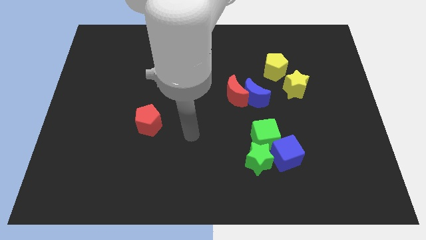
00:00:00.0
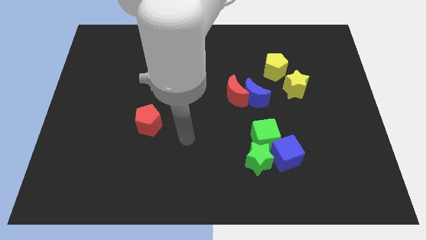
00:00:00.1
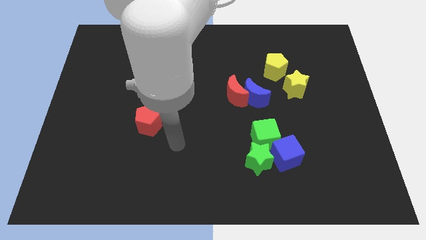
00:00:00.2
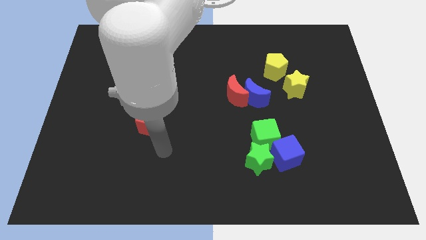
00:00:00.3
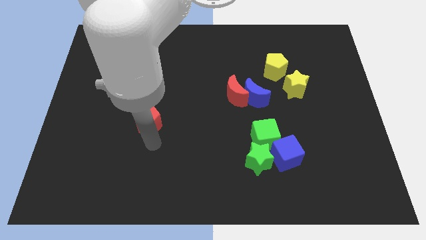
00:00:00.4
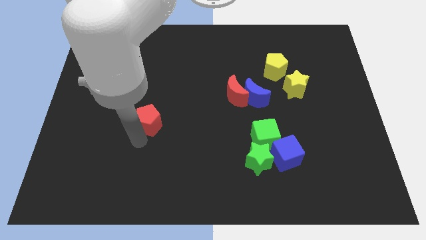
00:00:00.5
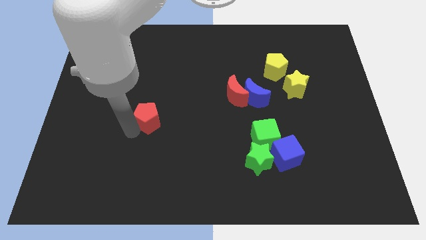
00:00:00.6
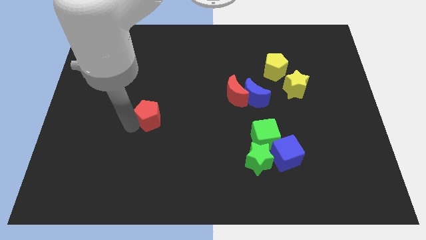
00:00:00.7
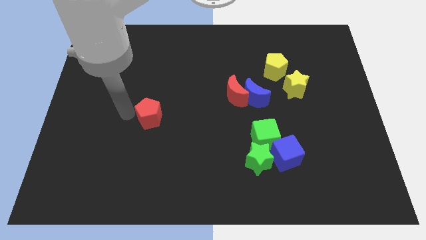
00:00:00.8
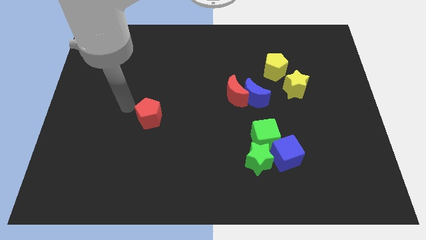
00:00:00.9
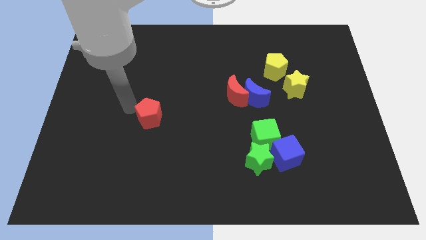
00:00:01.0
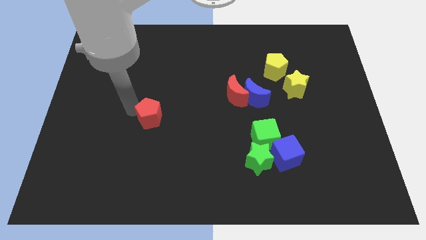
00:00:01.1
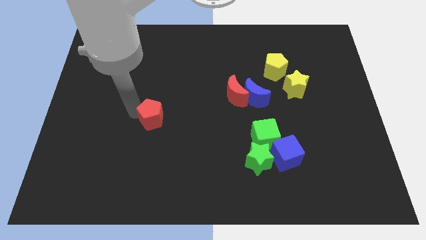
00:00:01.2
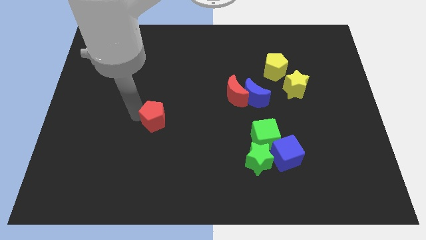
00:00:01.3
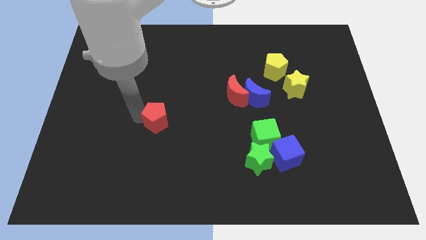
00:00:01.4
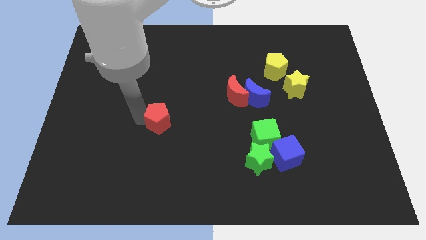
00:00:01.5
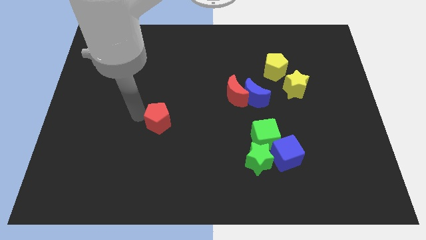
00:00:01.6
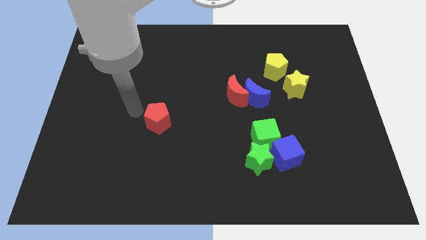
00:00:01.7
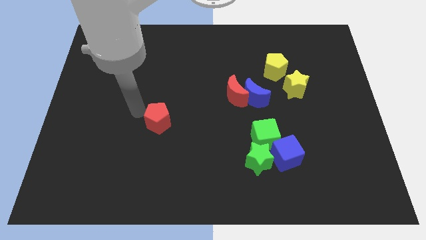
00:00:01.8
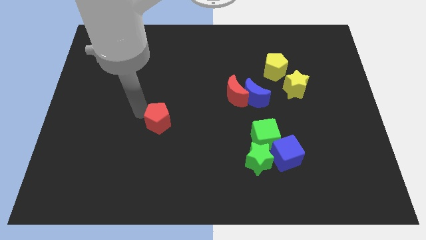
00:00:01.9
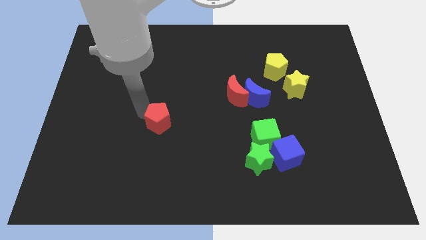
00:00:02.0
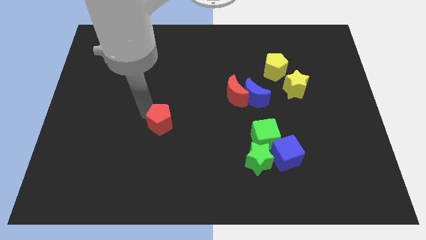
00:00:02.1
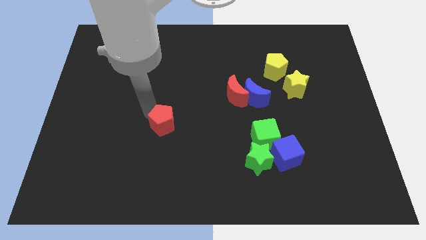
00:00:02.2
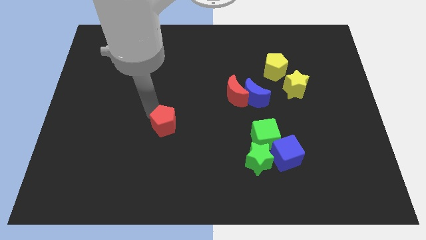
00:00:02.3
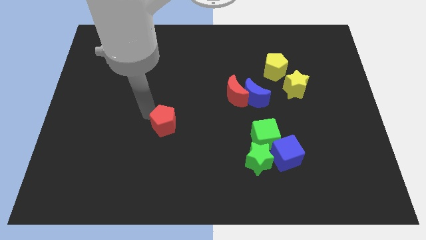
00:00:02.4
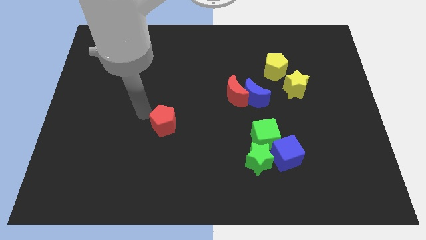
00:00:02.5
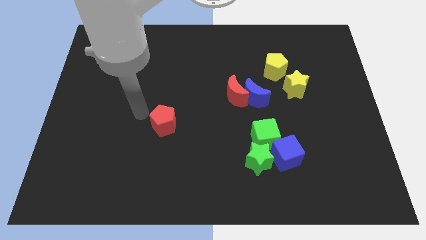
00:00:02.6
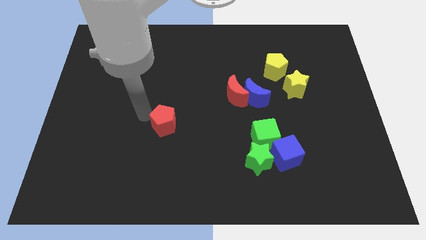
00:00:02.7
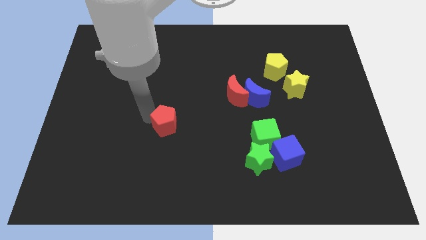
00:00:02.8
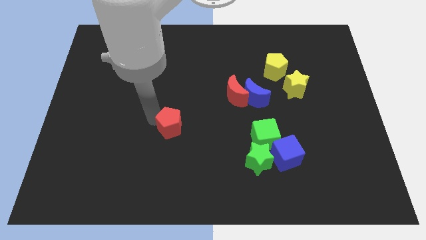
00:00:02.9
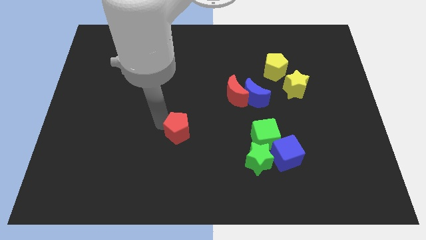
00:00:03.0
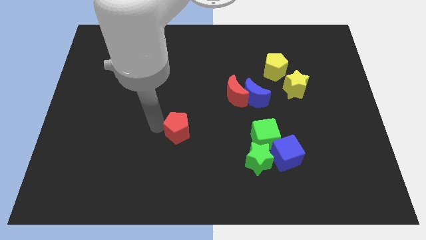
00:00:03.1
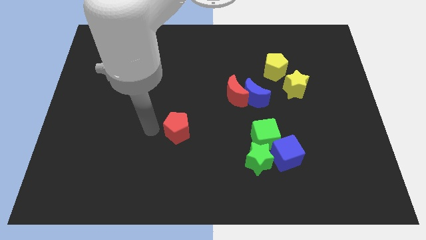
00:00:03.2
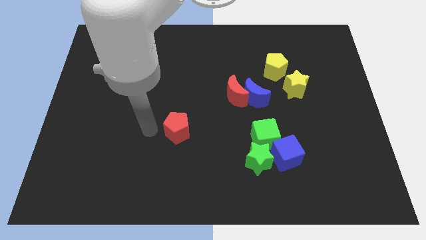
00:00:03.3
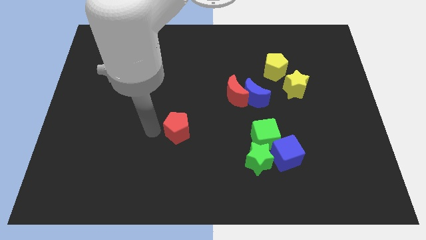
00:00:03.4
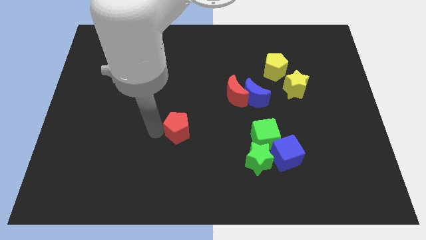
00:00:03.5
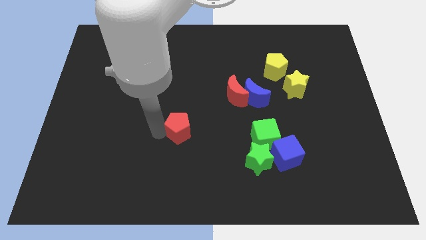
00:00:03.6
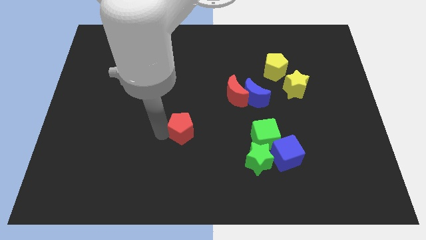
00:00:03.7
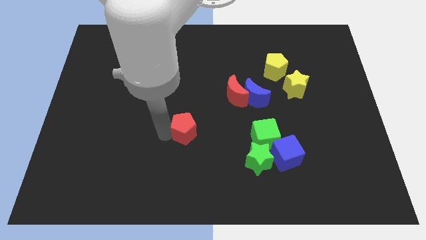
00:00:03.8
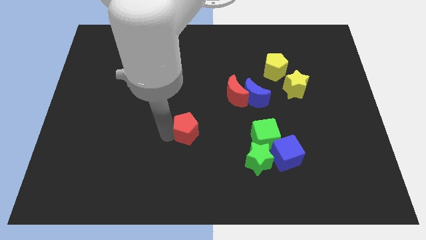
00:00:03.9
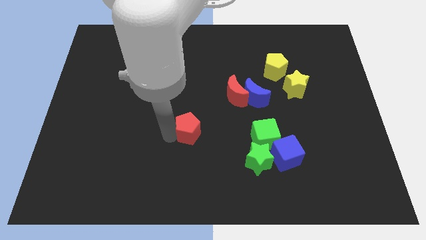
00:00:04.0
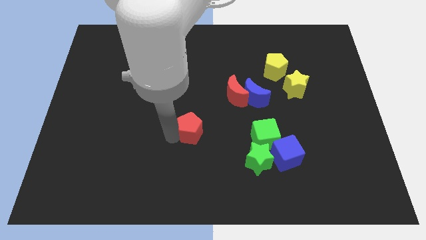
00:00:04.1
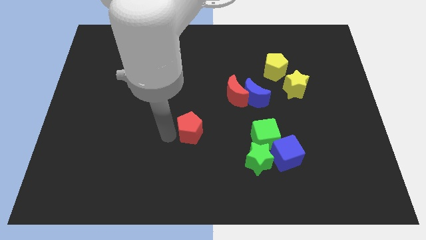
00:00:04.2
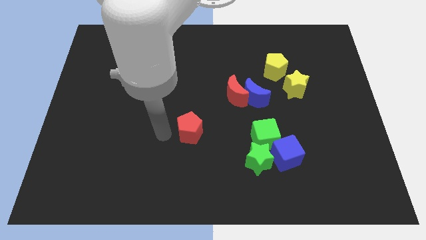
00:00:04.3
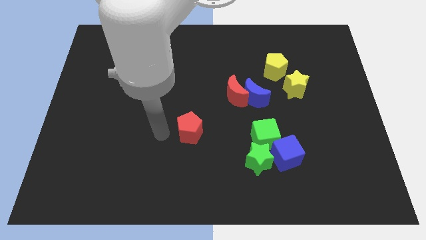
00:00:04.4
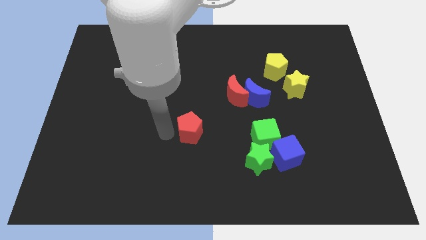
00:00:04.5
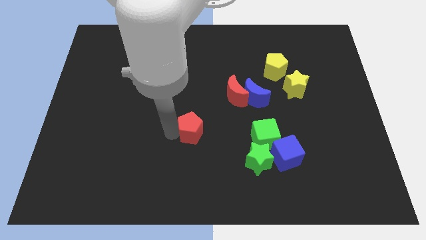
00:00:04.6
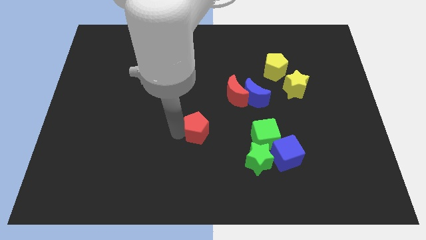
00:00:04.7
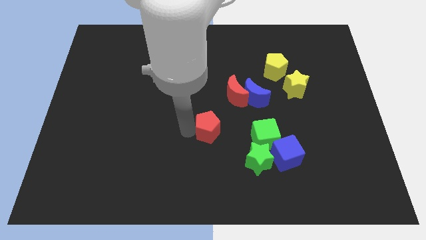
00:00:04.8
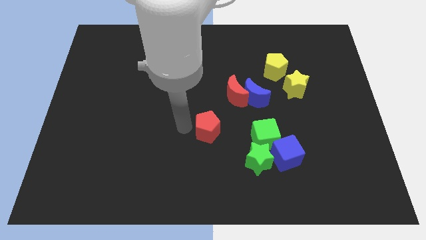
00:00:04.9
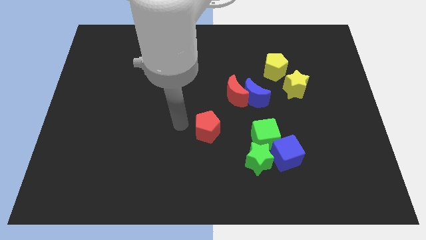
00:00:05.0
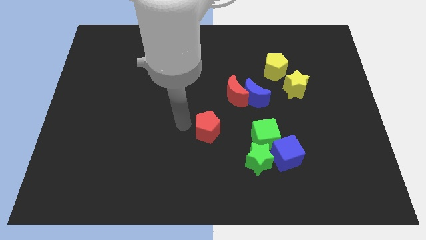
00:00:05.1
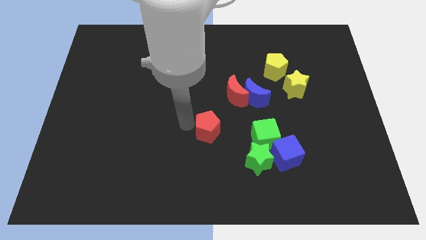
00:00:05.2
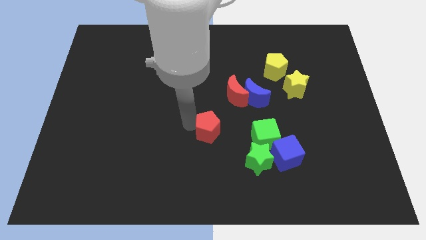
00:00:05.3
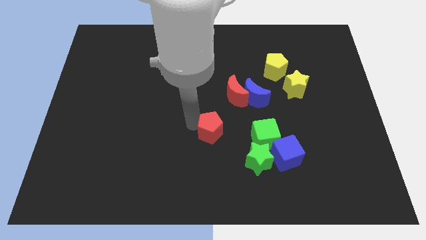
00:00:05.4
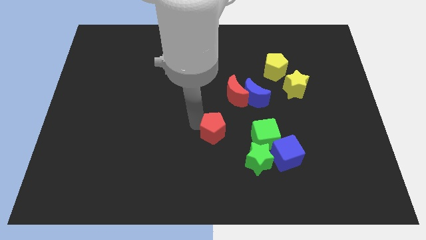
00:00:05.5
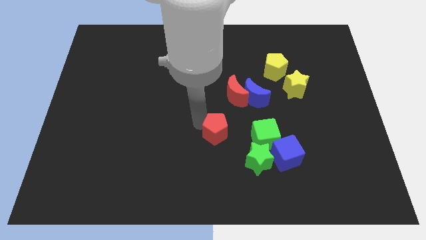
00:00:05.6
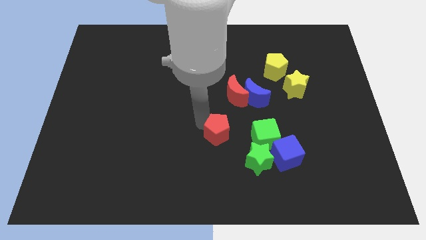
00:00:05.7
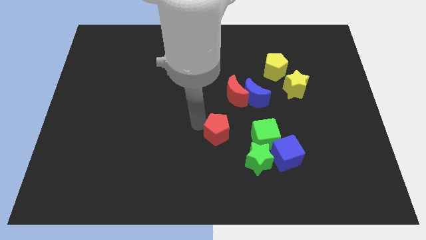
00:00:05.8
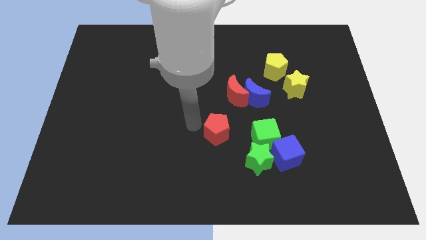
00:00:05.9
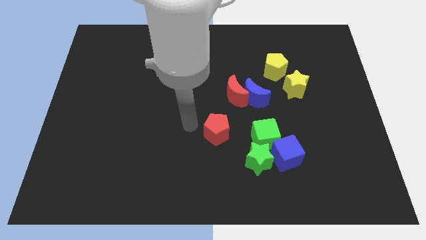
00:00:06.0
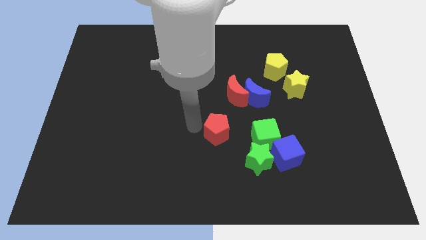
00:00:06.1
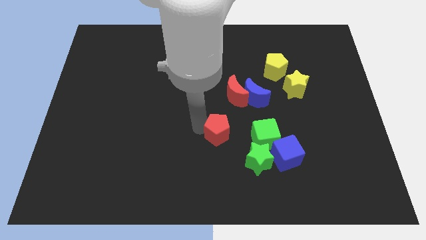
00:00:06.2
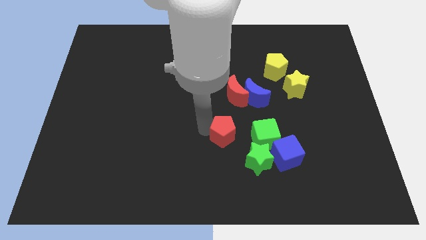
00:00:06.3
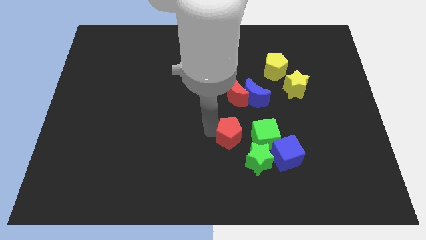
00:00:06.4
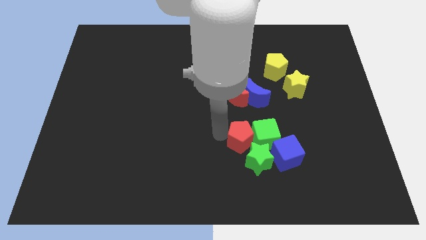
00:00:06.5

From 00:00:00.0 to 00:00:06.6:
push the red pentagon towards the green cube

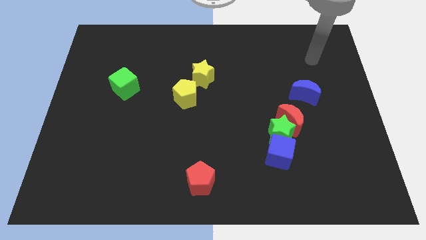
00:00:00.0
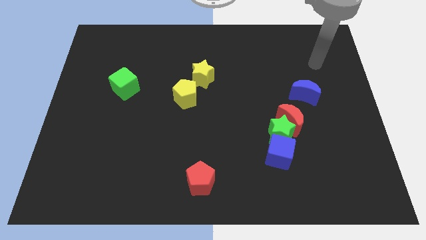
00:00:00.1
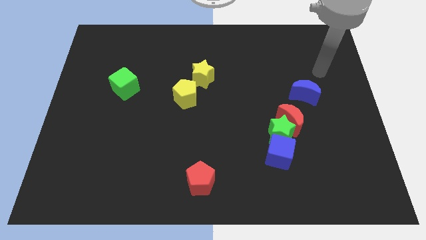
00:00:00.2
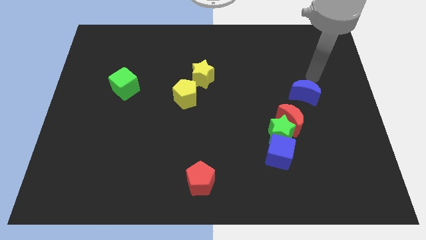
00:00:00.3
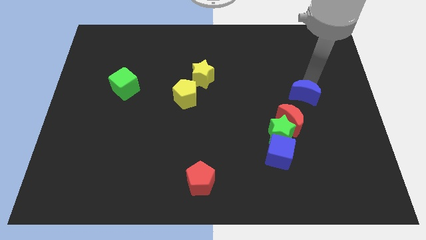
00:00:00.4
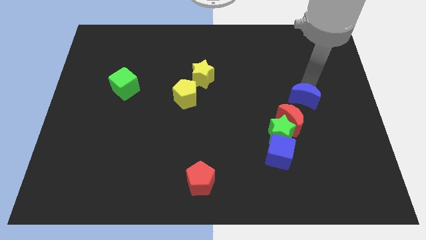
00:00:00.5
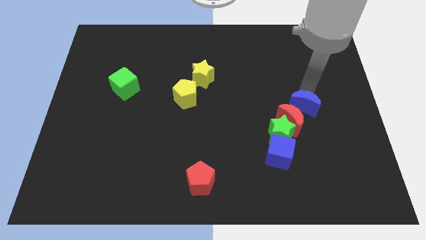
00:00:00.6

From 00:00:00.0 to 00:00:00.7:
put the blue moon close to the red moon
